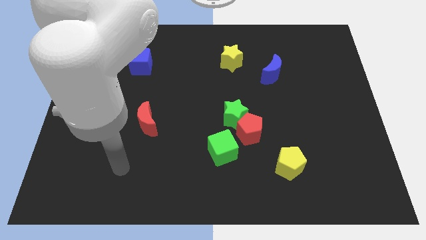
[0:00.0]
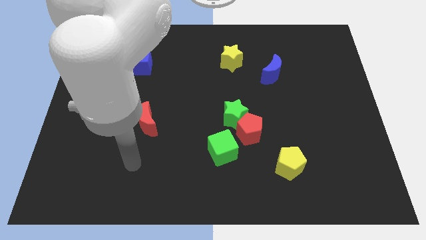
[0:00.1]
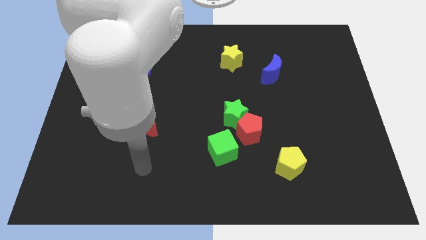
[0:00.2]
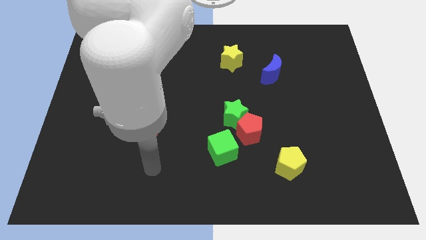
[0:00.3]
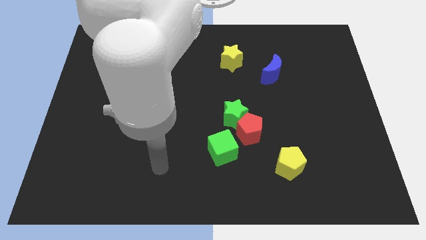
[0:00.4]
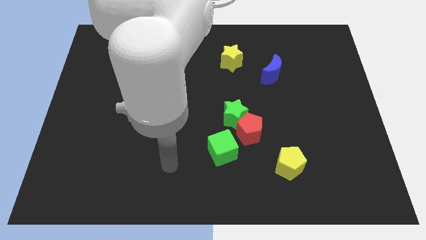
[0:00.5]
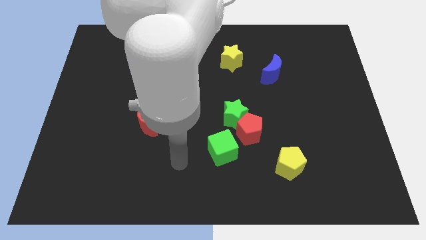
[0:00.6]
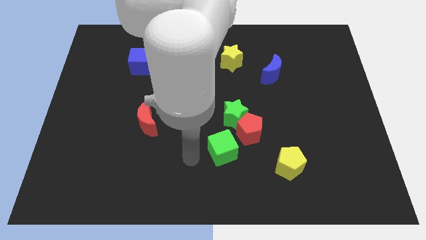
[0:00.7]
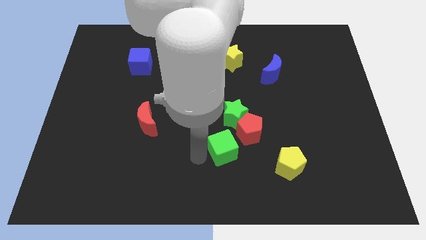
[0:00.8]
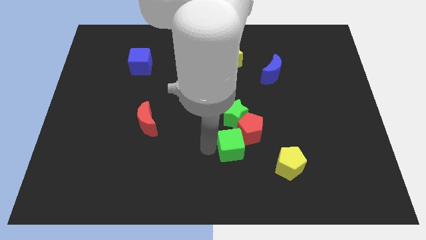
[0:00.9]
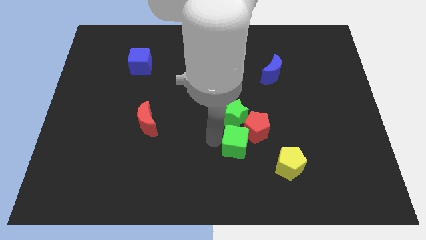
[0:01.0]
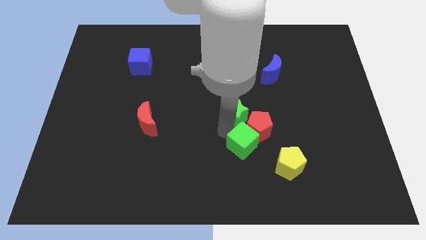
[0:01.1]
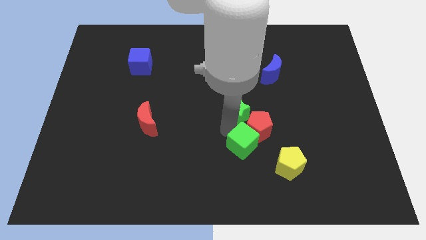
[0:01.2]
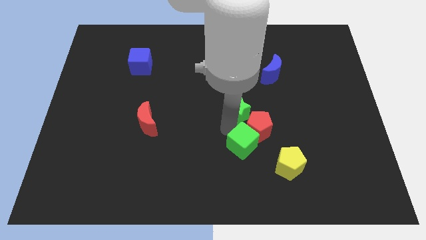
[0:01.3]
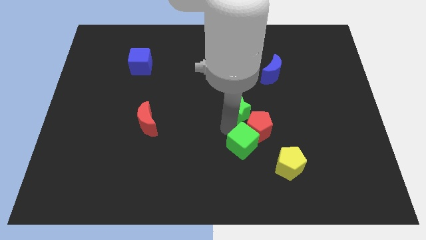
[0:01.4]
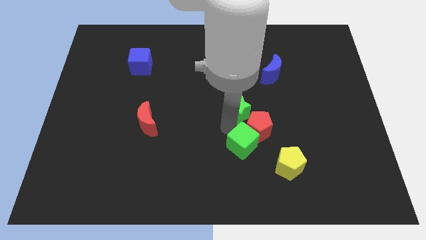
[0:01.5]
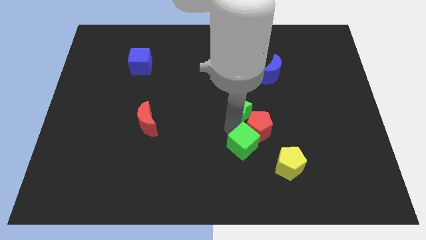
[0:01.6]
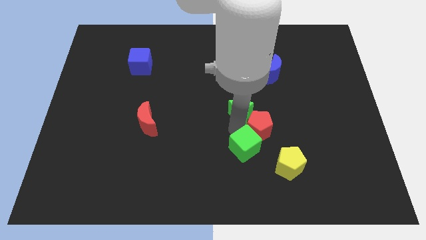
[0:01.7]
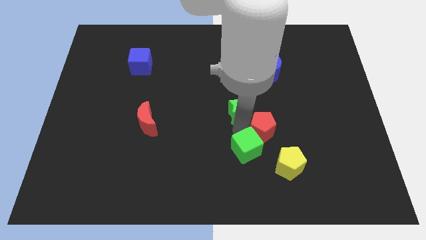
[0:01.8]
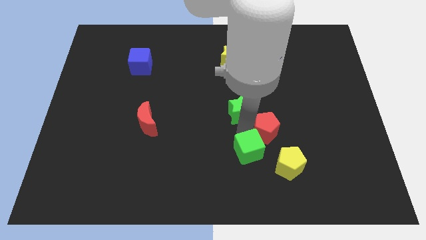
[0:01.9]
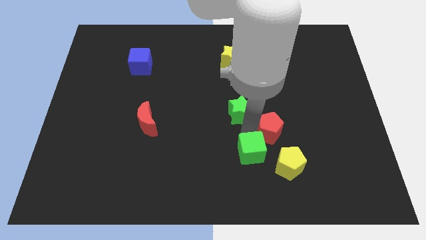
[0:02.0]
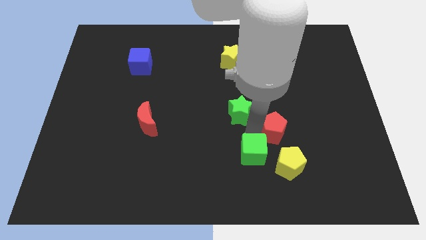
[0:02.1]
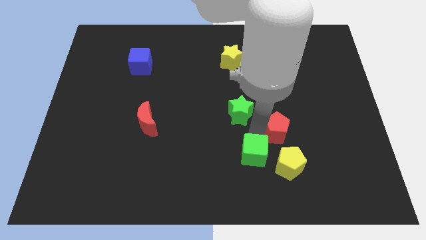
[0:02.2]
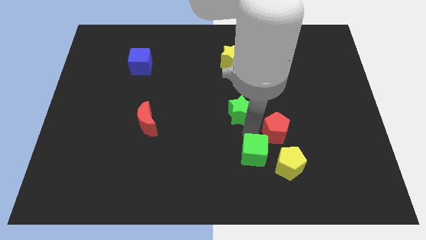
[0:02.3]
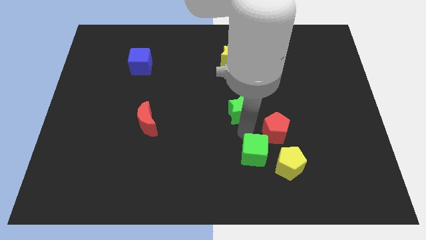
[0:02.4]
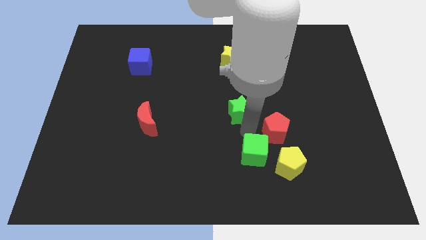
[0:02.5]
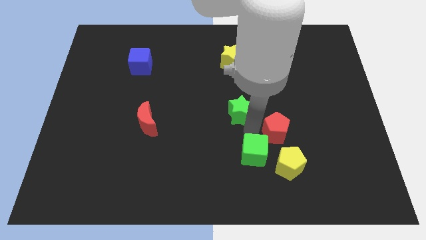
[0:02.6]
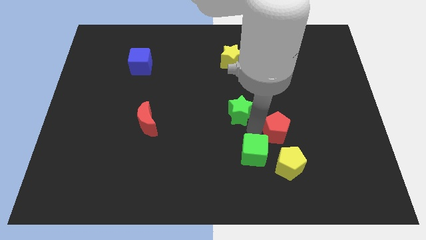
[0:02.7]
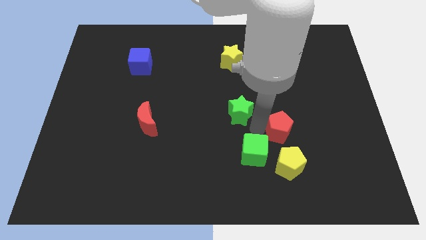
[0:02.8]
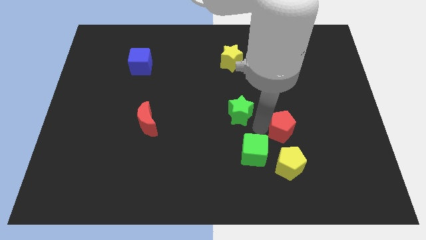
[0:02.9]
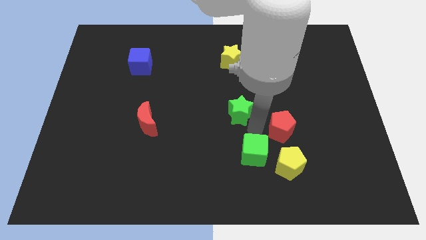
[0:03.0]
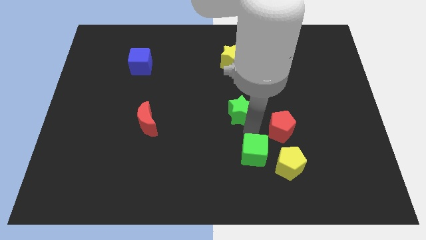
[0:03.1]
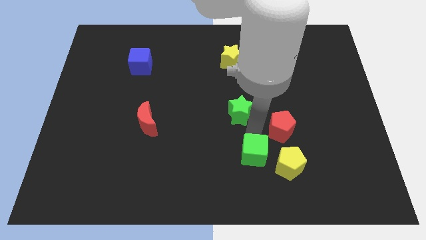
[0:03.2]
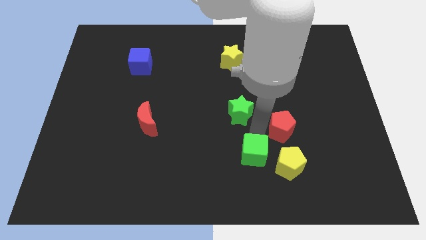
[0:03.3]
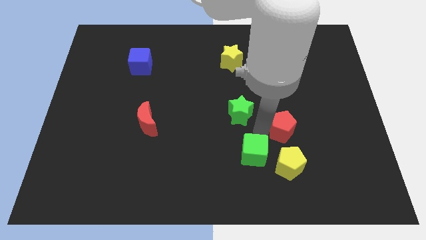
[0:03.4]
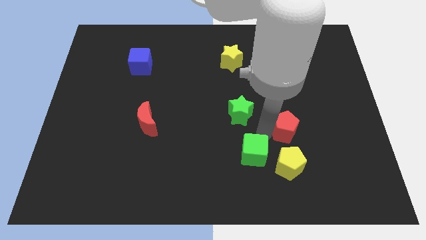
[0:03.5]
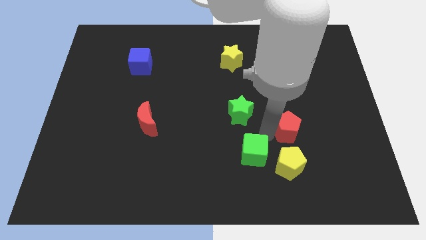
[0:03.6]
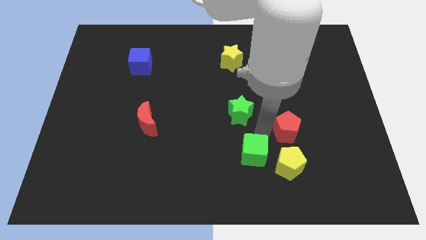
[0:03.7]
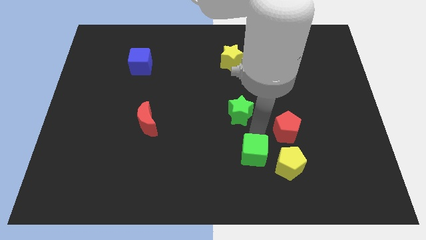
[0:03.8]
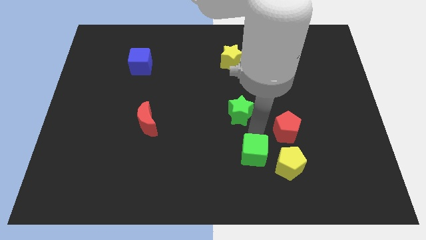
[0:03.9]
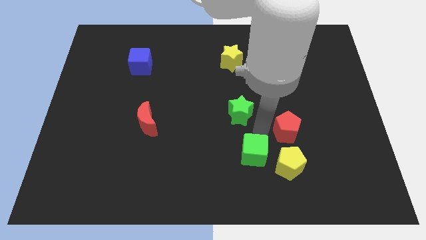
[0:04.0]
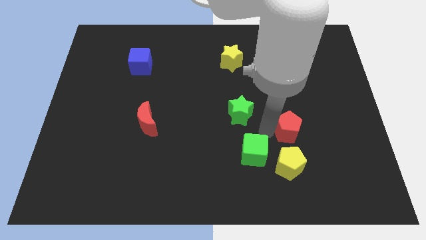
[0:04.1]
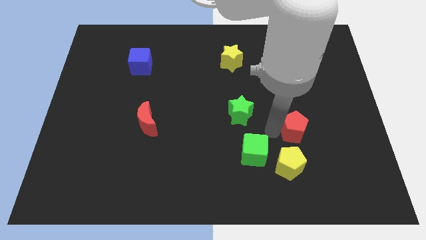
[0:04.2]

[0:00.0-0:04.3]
pull the red pentagon apart from the green star and green cube

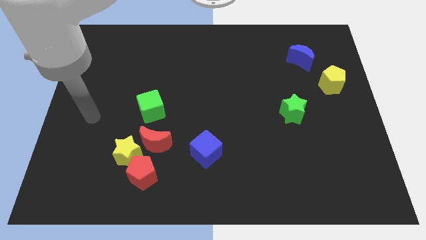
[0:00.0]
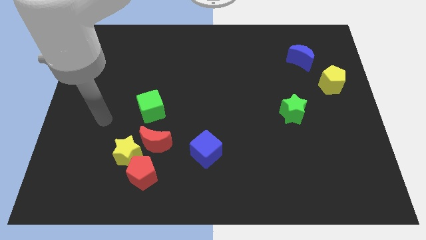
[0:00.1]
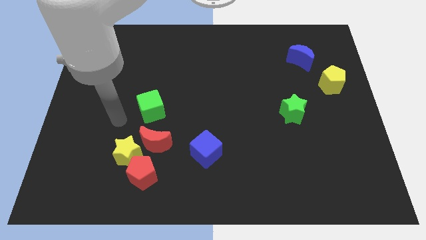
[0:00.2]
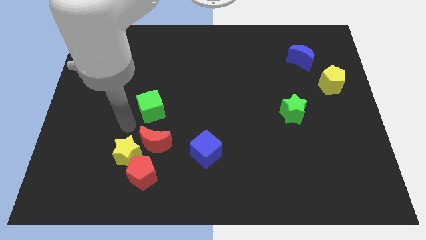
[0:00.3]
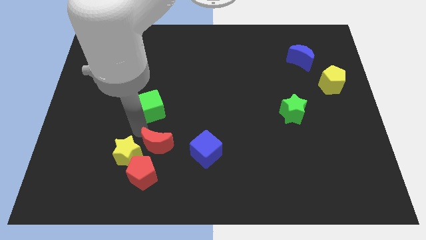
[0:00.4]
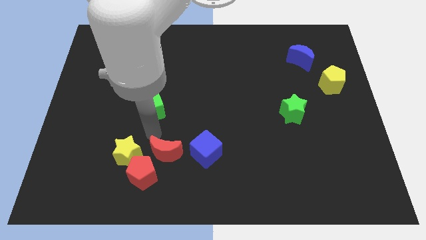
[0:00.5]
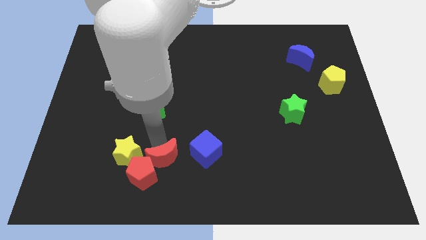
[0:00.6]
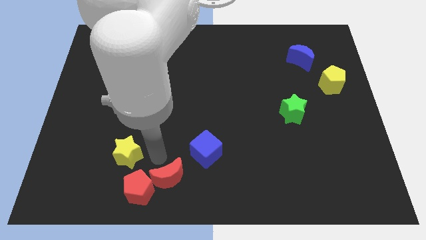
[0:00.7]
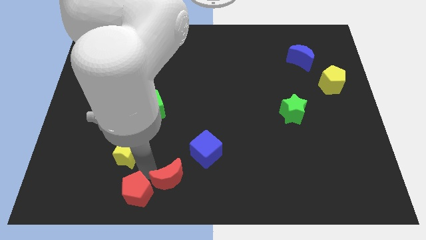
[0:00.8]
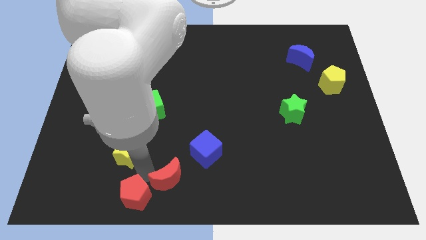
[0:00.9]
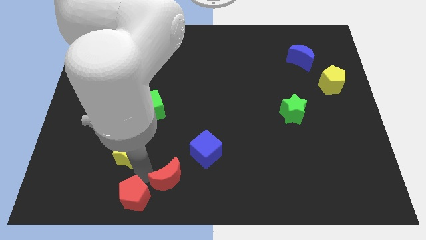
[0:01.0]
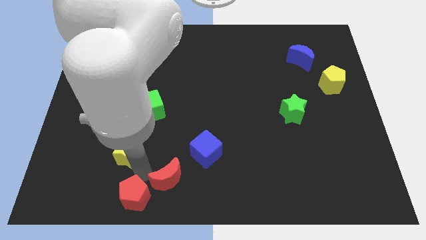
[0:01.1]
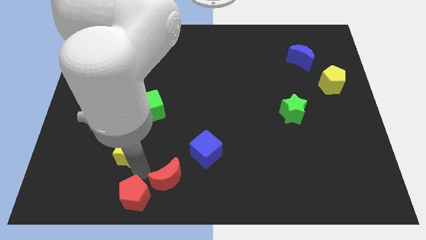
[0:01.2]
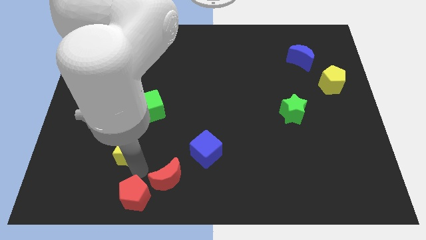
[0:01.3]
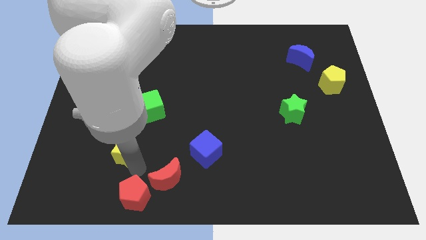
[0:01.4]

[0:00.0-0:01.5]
move the yellow star away from the red moon and red pentagon

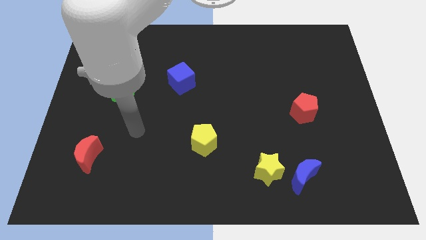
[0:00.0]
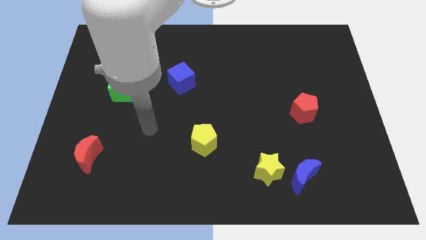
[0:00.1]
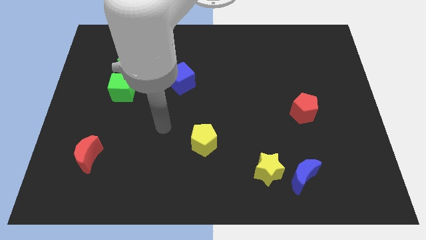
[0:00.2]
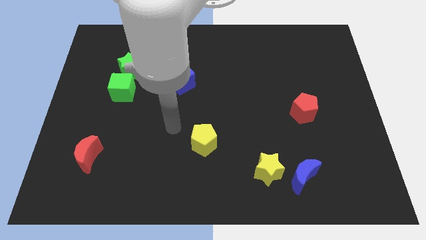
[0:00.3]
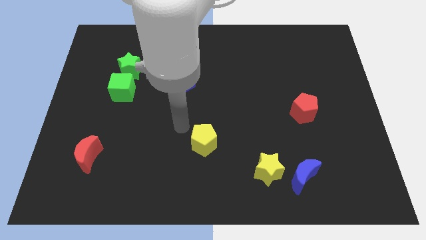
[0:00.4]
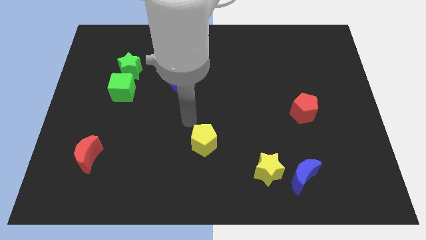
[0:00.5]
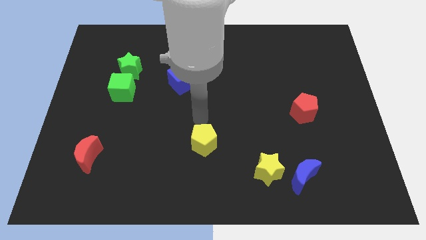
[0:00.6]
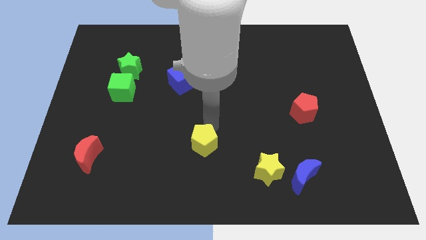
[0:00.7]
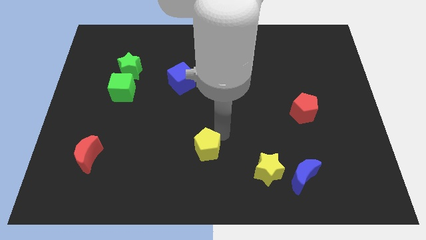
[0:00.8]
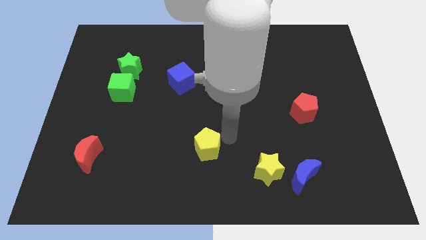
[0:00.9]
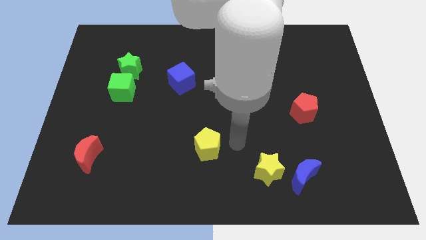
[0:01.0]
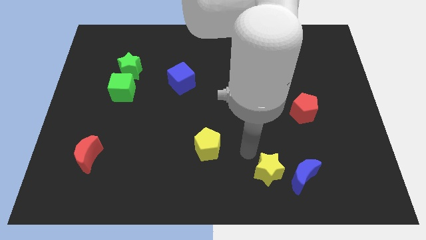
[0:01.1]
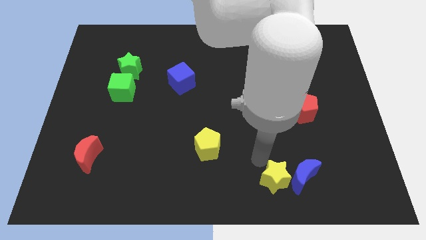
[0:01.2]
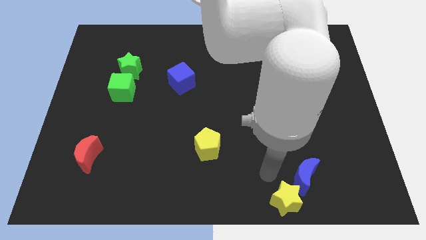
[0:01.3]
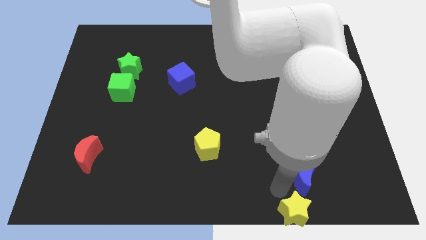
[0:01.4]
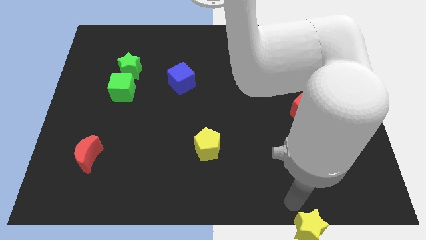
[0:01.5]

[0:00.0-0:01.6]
pull the blue moon apart from the yellow star

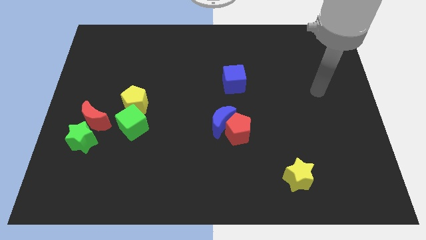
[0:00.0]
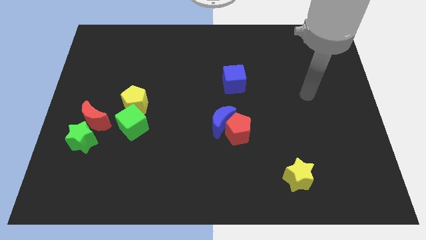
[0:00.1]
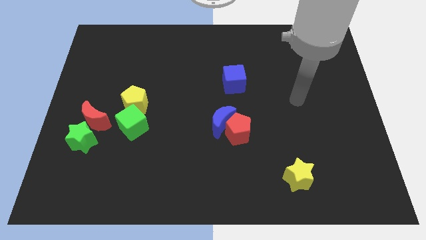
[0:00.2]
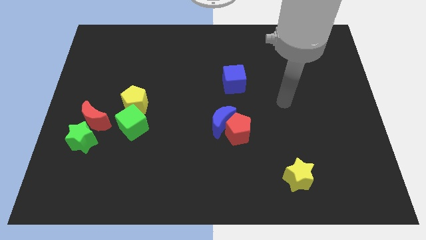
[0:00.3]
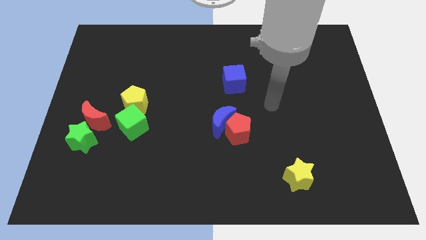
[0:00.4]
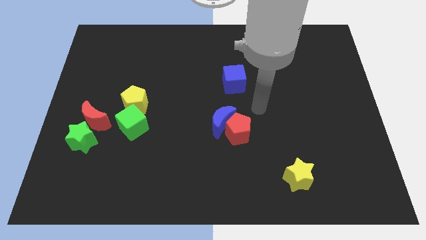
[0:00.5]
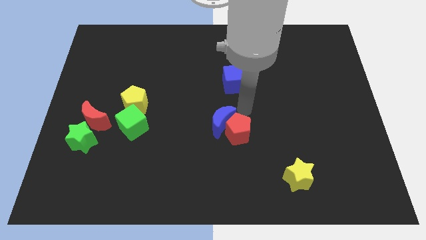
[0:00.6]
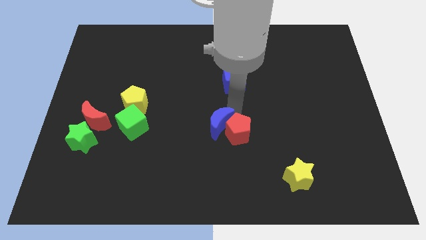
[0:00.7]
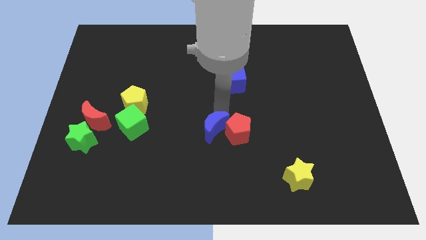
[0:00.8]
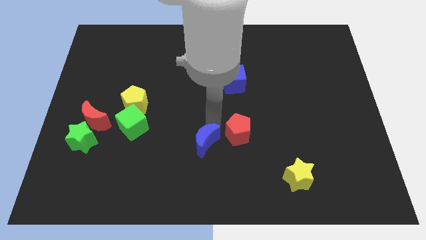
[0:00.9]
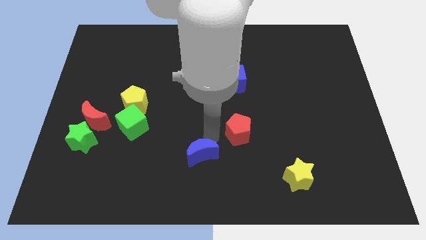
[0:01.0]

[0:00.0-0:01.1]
pull the red pentagon apart from the blue moon

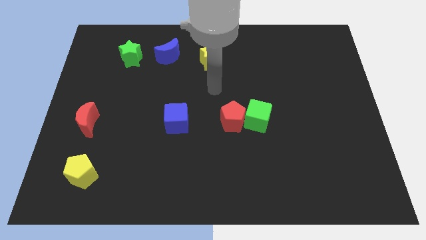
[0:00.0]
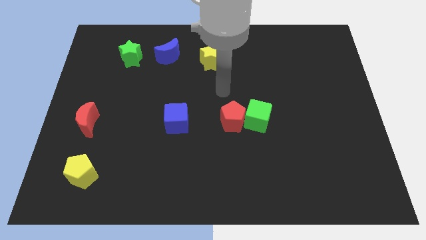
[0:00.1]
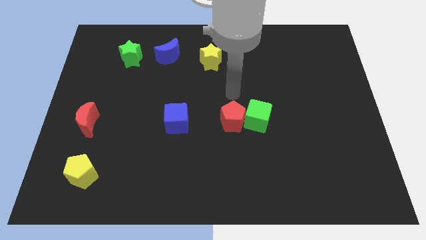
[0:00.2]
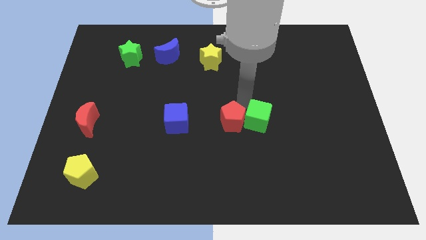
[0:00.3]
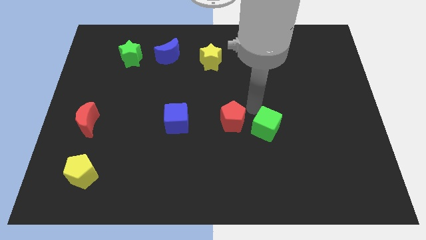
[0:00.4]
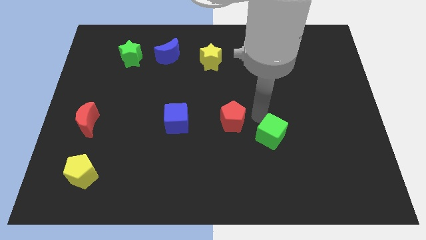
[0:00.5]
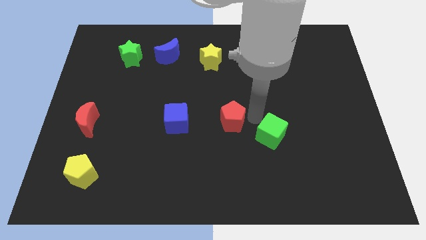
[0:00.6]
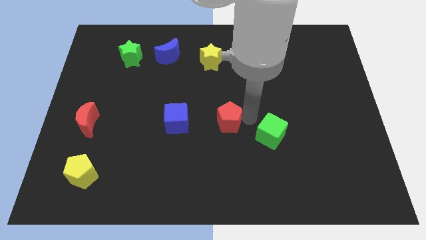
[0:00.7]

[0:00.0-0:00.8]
separate the red pentagon from the green cube

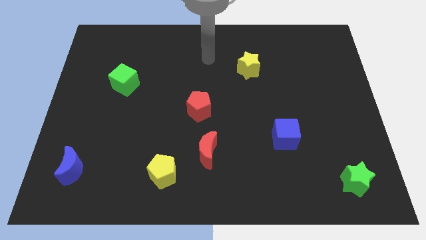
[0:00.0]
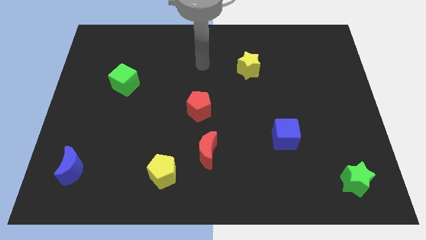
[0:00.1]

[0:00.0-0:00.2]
separate the red moon from the yellow pentagon
